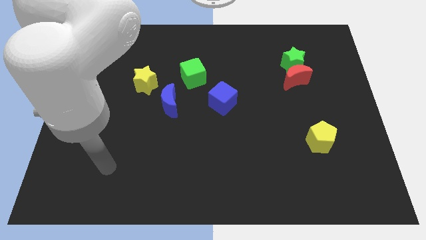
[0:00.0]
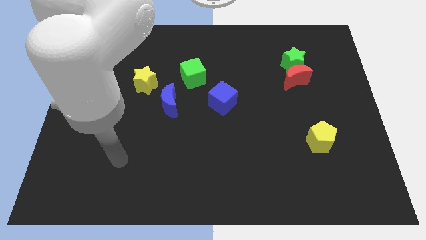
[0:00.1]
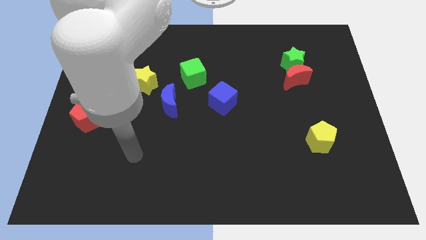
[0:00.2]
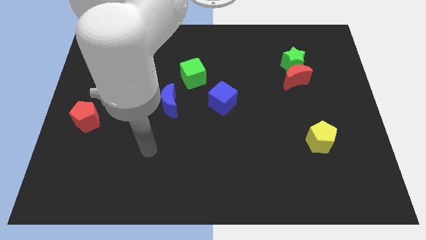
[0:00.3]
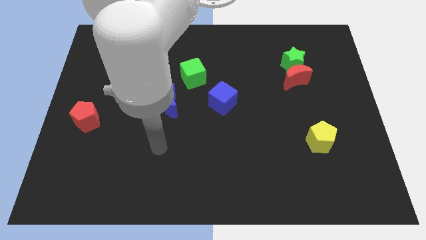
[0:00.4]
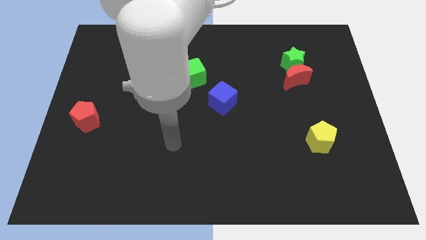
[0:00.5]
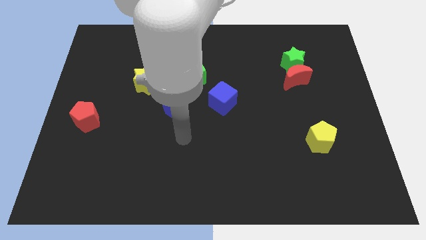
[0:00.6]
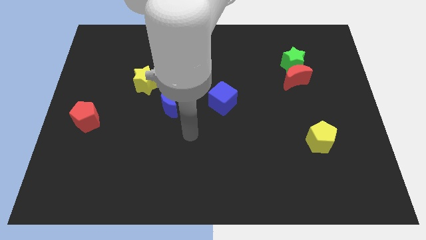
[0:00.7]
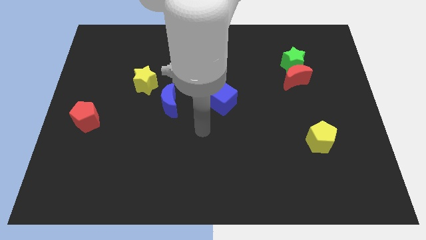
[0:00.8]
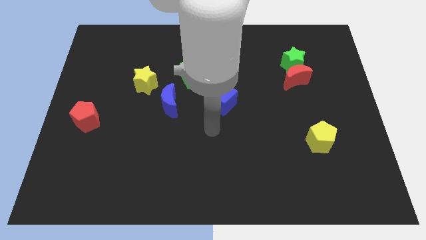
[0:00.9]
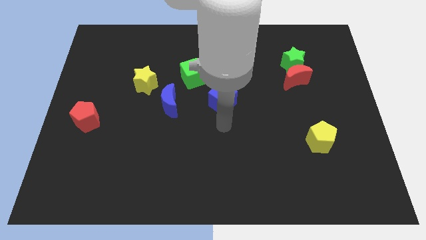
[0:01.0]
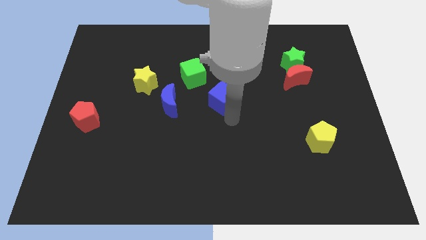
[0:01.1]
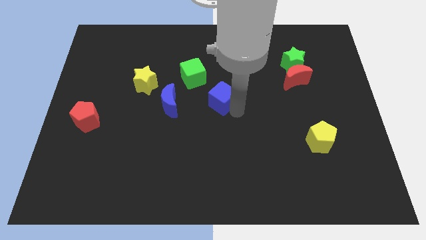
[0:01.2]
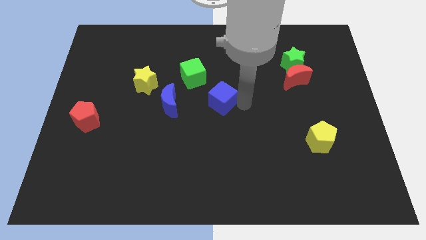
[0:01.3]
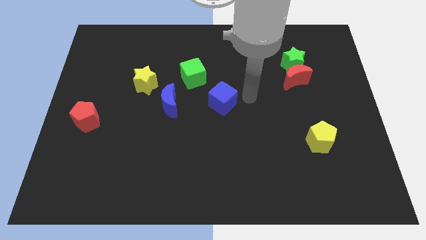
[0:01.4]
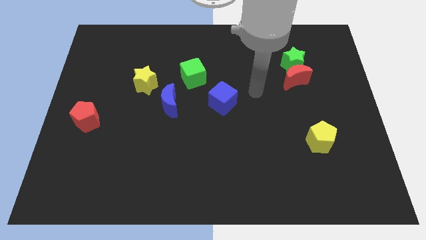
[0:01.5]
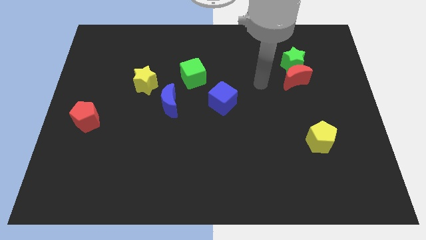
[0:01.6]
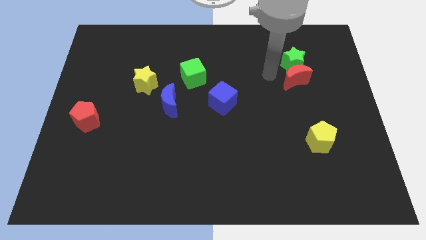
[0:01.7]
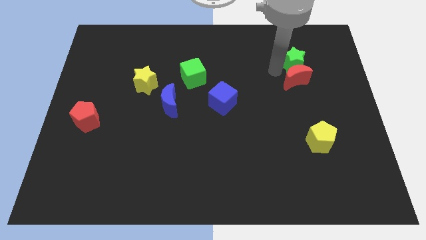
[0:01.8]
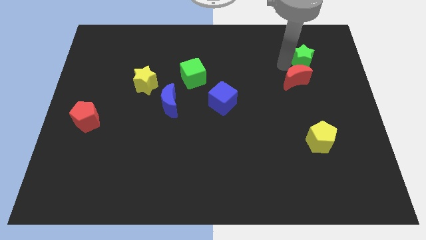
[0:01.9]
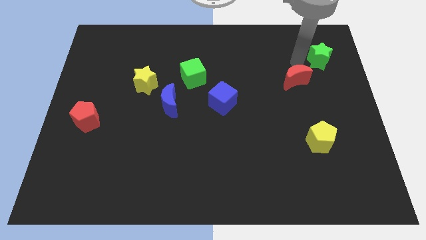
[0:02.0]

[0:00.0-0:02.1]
move the red moon away from the green star

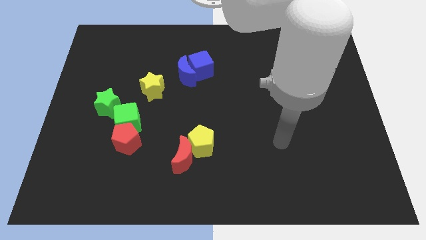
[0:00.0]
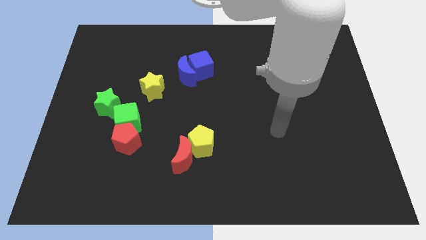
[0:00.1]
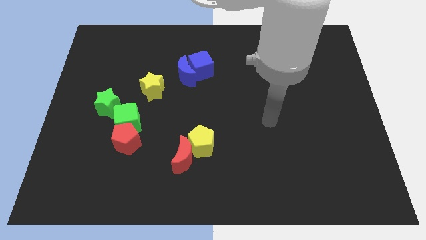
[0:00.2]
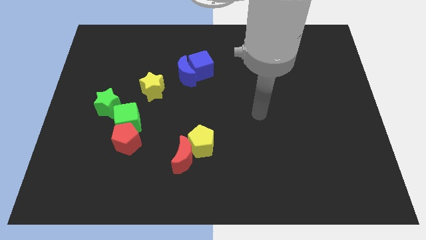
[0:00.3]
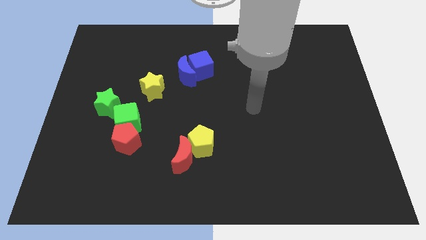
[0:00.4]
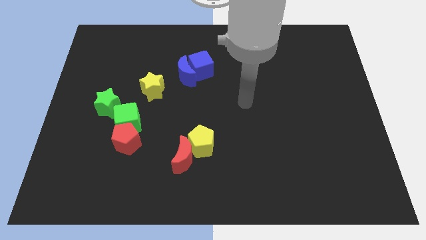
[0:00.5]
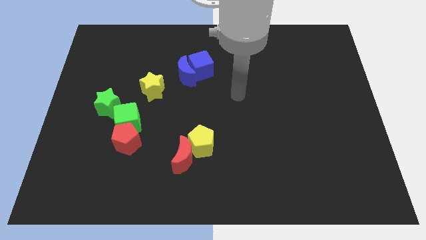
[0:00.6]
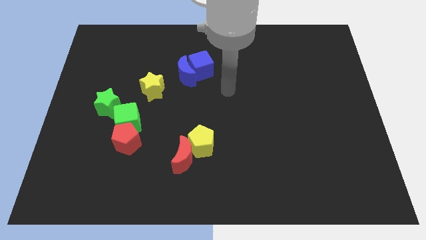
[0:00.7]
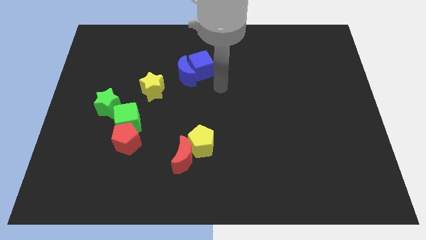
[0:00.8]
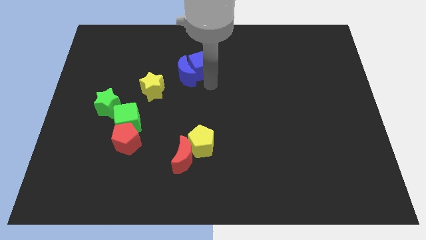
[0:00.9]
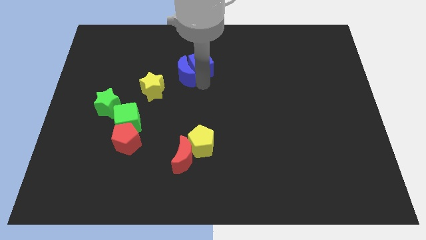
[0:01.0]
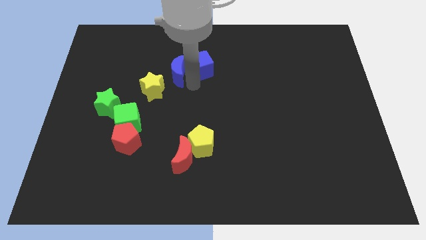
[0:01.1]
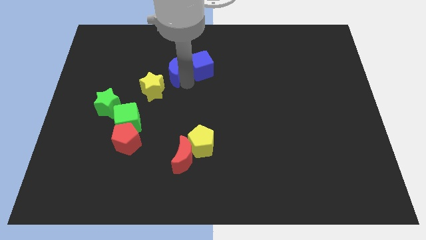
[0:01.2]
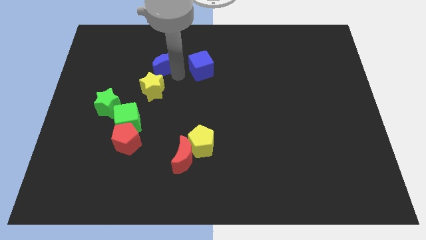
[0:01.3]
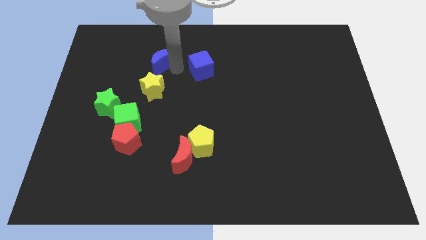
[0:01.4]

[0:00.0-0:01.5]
separate the blue cube from the blue moon

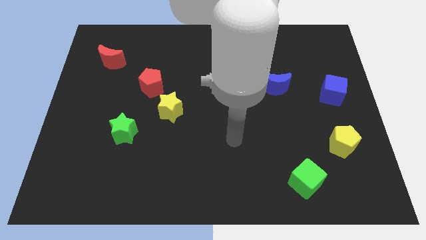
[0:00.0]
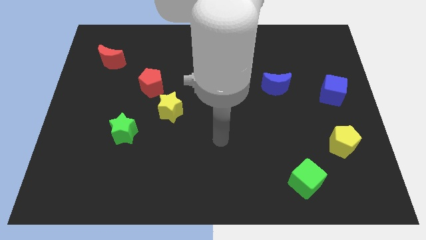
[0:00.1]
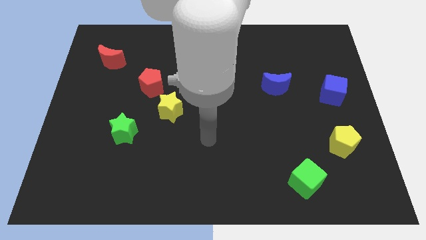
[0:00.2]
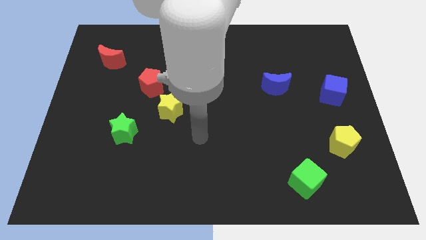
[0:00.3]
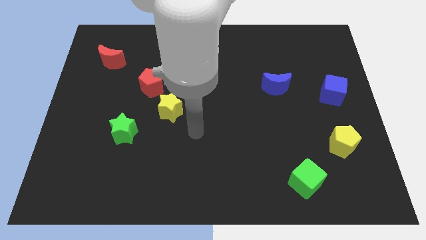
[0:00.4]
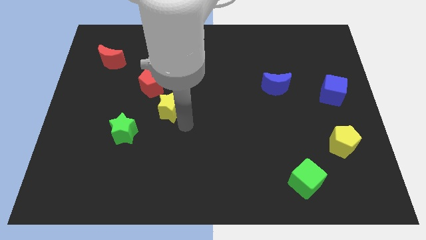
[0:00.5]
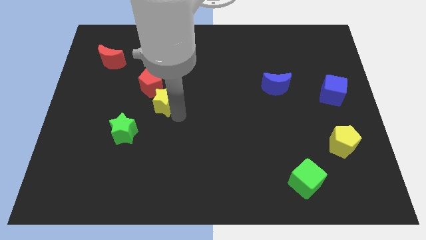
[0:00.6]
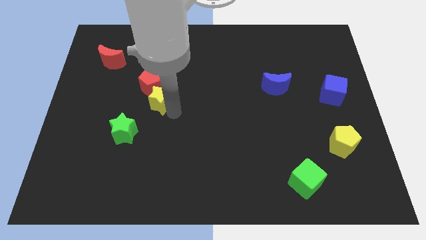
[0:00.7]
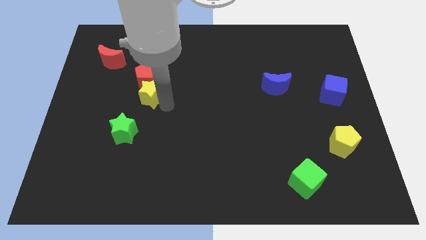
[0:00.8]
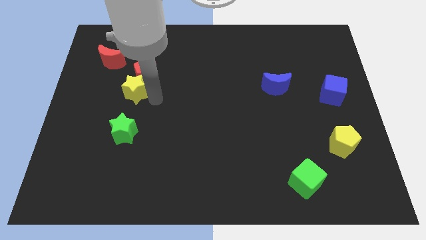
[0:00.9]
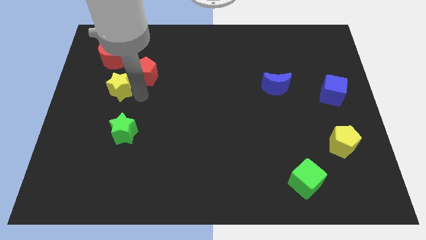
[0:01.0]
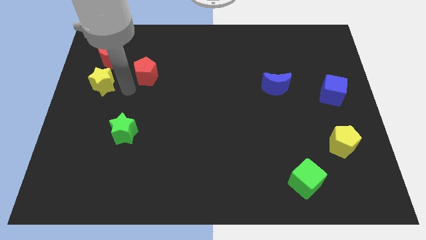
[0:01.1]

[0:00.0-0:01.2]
separate the red pentagon from the yellow star

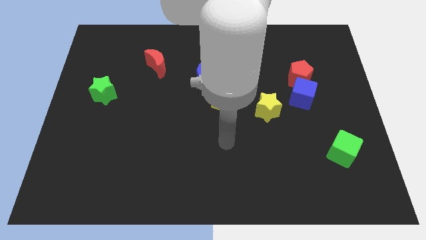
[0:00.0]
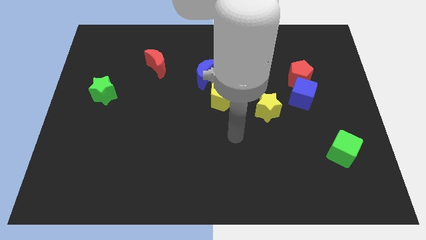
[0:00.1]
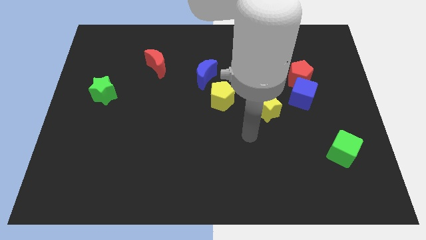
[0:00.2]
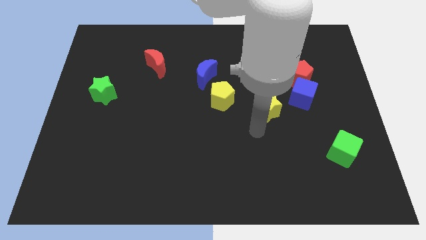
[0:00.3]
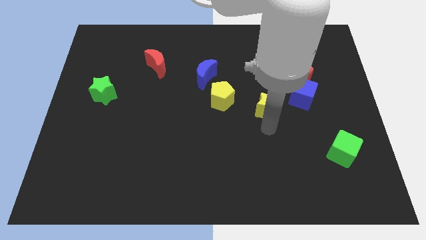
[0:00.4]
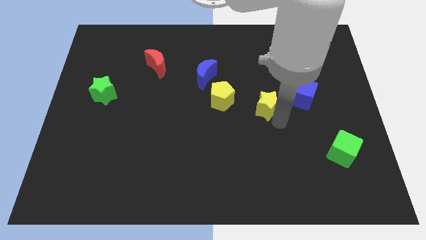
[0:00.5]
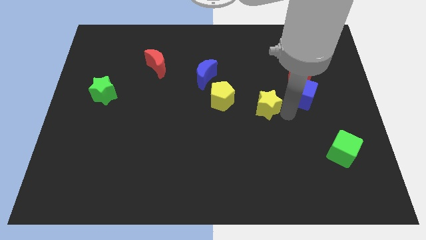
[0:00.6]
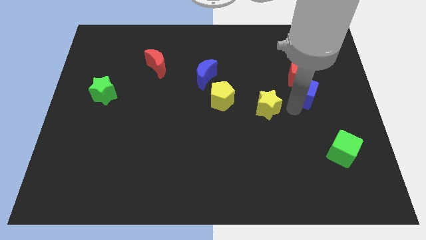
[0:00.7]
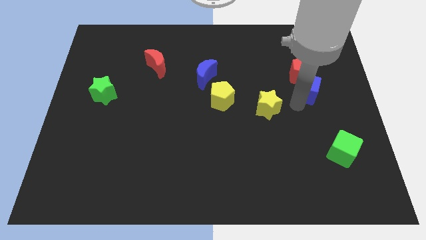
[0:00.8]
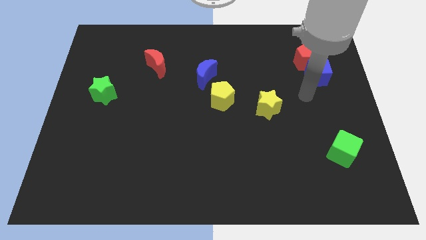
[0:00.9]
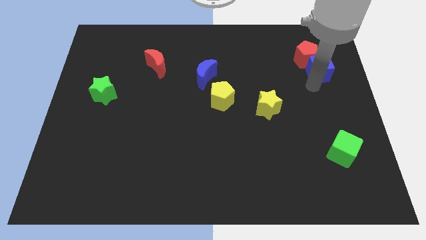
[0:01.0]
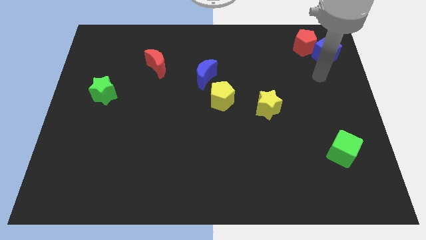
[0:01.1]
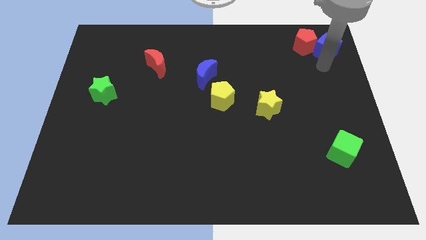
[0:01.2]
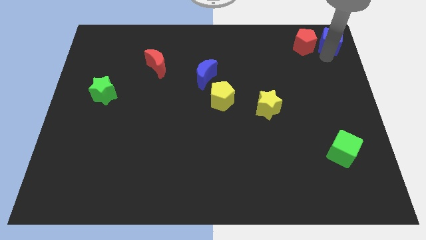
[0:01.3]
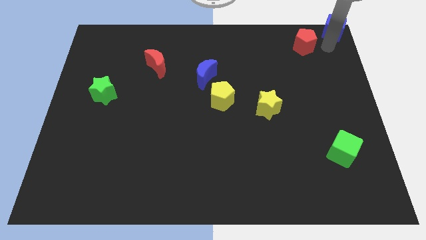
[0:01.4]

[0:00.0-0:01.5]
pull the red pentagon apart from the blue cube

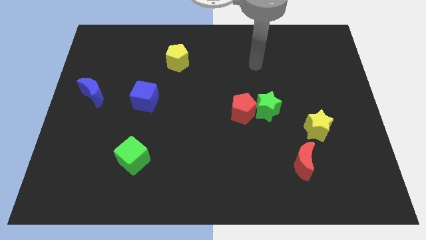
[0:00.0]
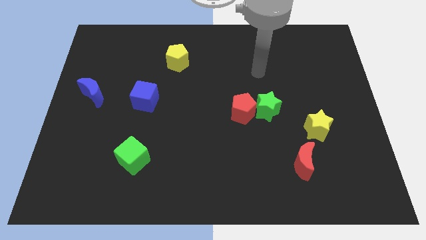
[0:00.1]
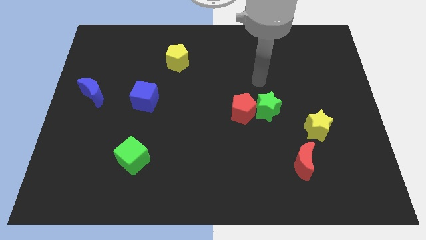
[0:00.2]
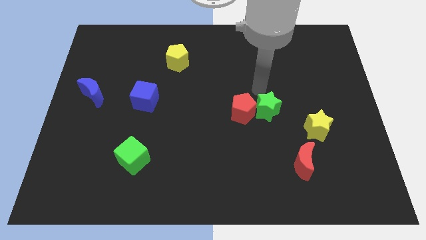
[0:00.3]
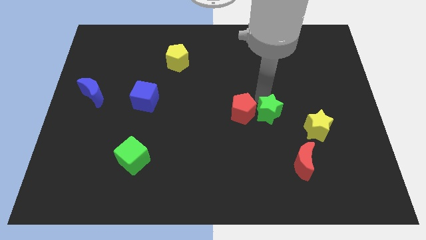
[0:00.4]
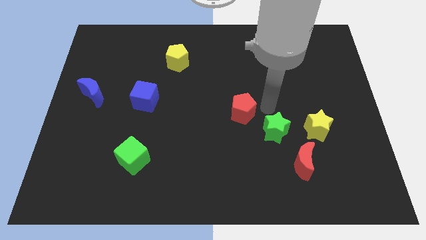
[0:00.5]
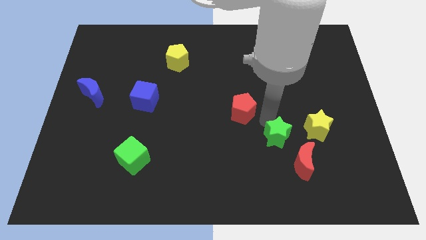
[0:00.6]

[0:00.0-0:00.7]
pull the red pentagon apart from the green star

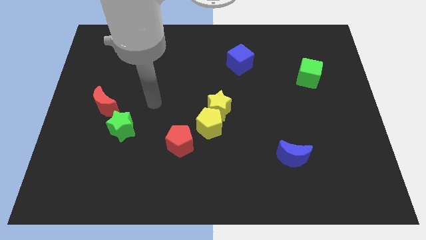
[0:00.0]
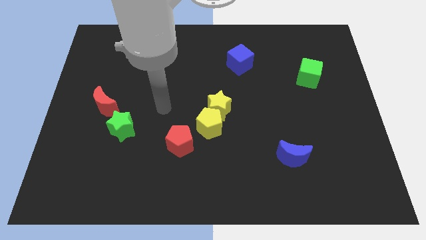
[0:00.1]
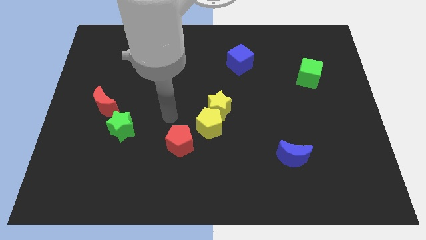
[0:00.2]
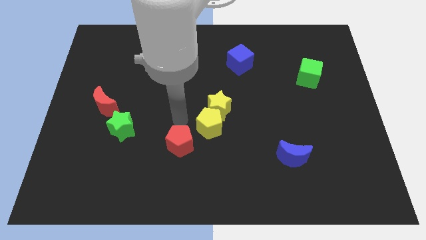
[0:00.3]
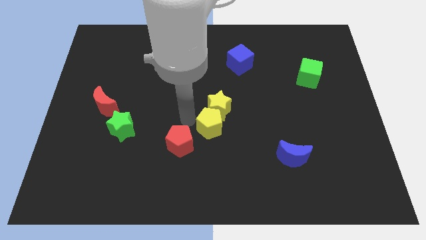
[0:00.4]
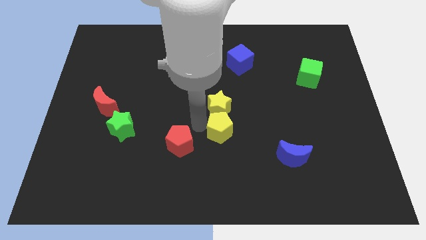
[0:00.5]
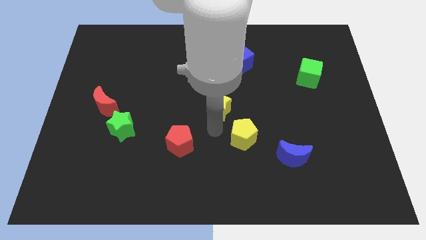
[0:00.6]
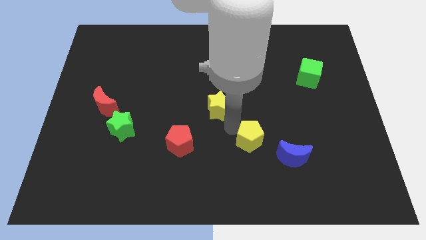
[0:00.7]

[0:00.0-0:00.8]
move the yellow star away from the yellow pentagon

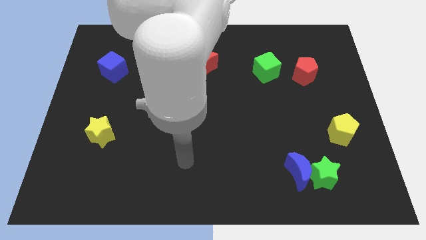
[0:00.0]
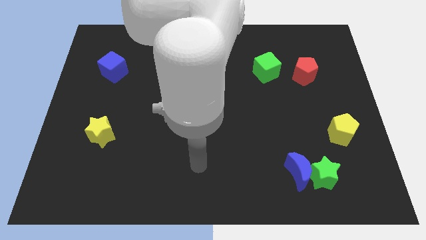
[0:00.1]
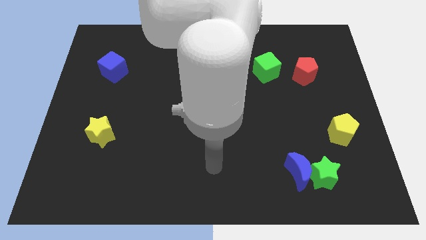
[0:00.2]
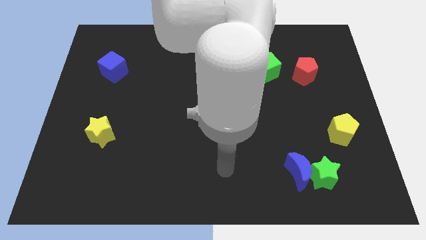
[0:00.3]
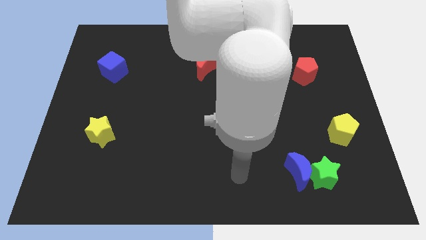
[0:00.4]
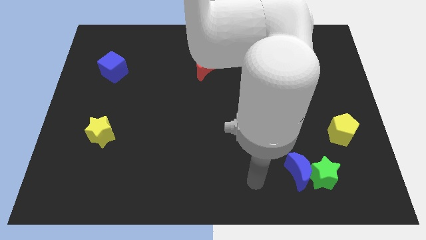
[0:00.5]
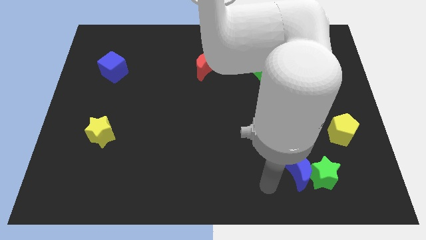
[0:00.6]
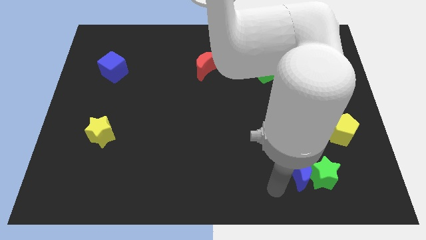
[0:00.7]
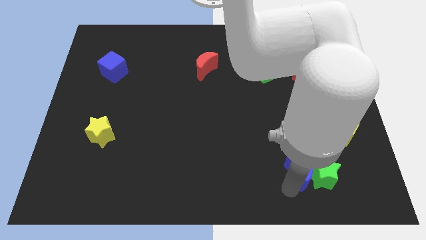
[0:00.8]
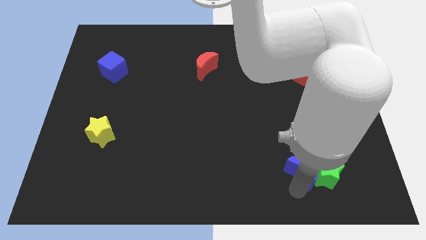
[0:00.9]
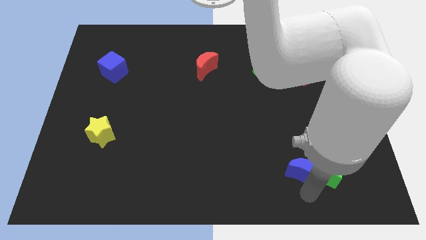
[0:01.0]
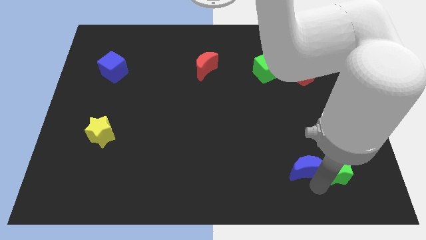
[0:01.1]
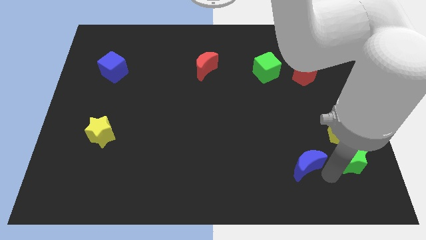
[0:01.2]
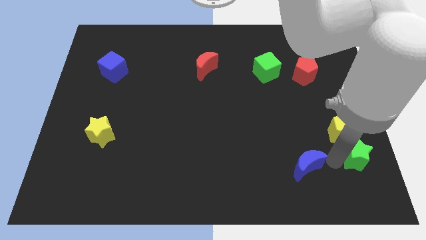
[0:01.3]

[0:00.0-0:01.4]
separate the blue moon from the green star
